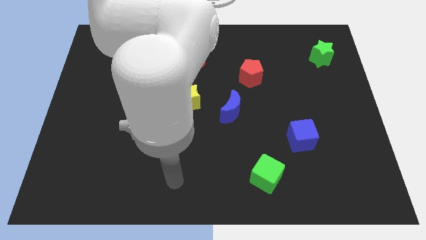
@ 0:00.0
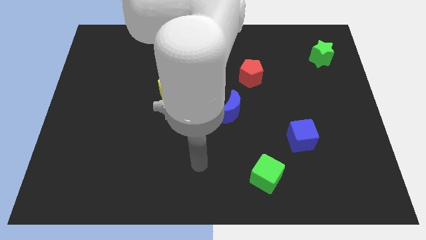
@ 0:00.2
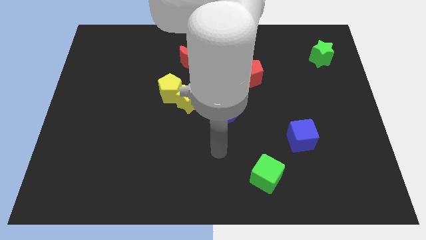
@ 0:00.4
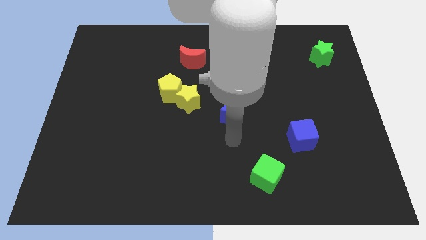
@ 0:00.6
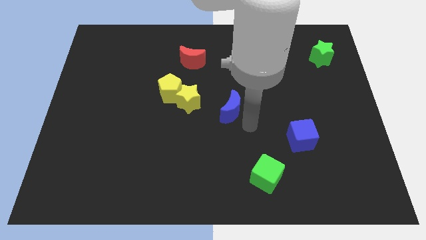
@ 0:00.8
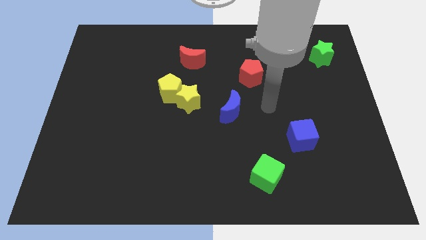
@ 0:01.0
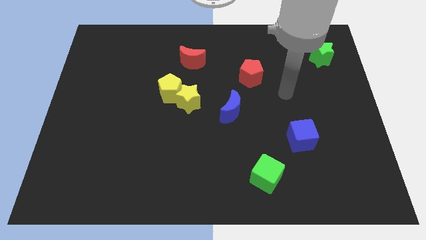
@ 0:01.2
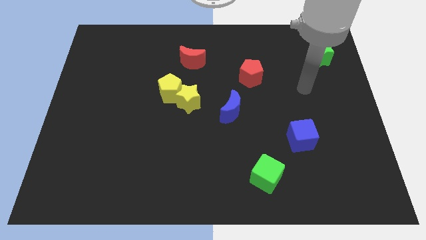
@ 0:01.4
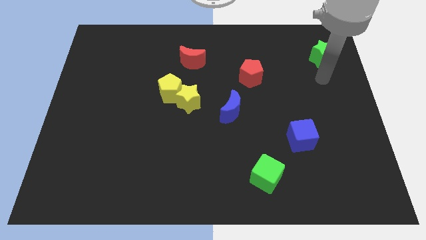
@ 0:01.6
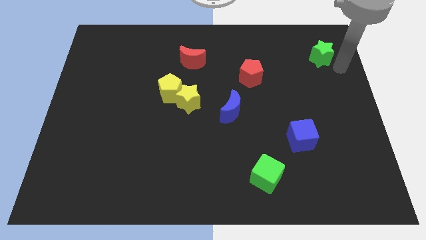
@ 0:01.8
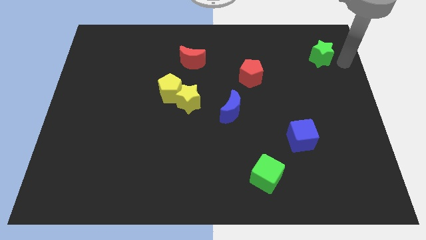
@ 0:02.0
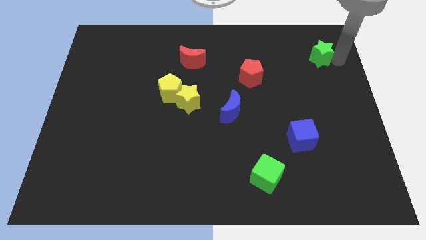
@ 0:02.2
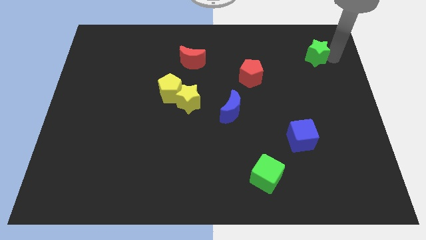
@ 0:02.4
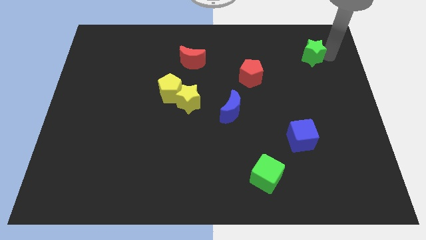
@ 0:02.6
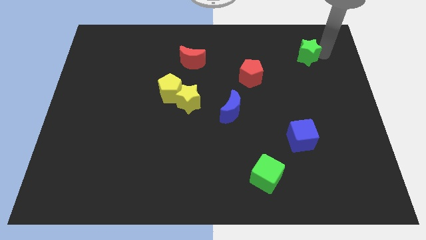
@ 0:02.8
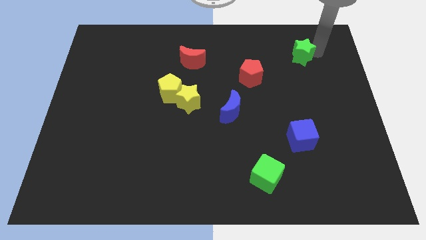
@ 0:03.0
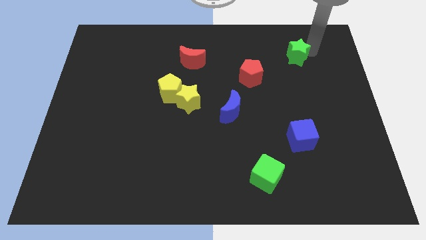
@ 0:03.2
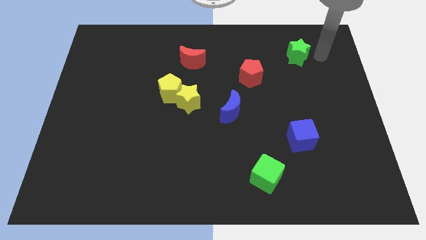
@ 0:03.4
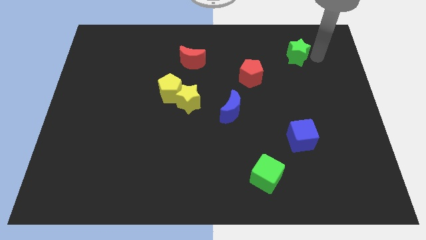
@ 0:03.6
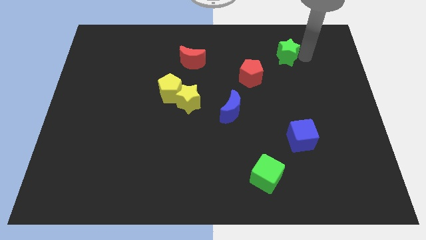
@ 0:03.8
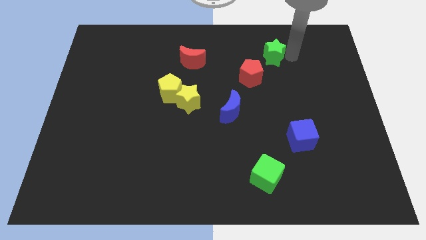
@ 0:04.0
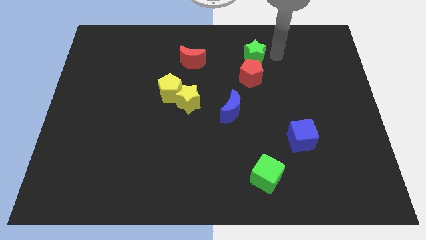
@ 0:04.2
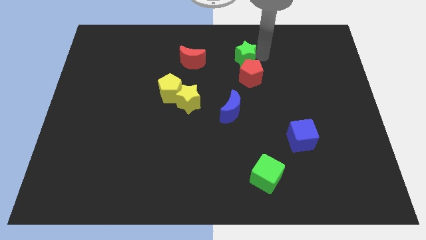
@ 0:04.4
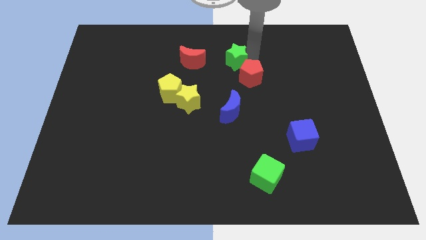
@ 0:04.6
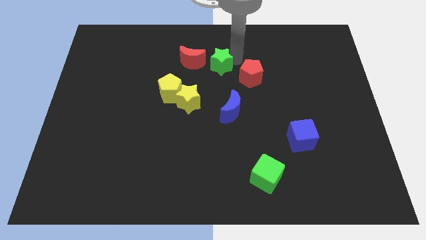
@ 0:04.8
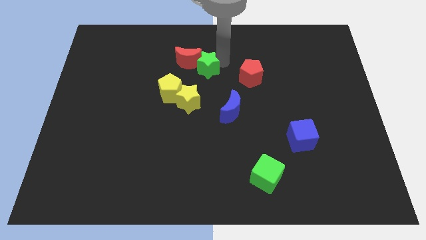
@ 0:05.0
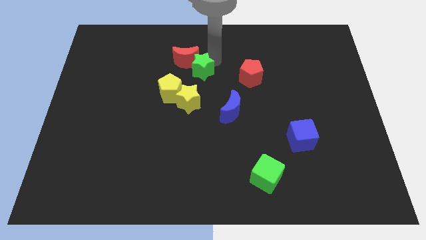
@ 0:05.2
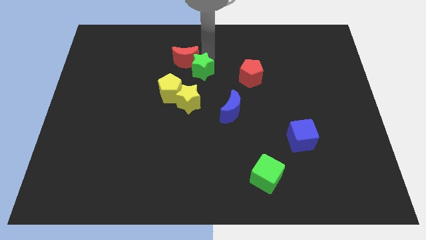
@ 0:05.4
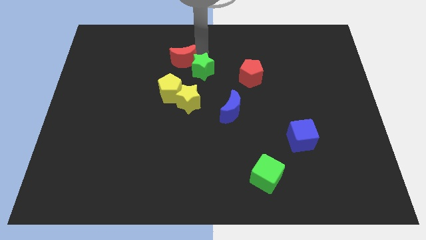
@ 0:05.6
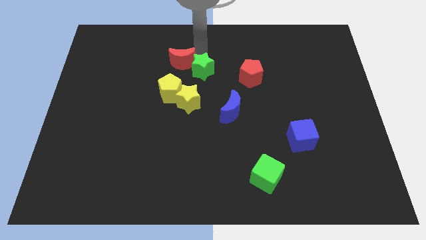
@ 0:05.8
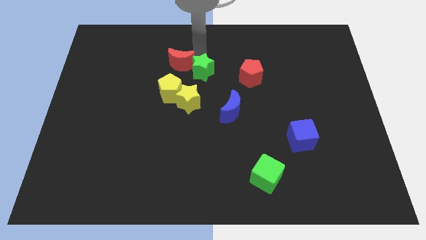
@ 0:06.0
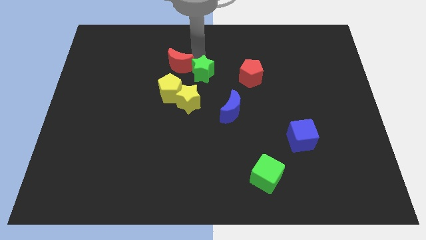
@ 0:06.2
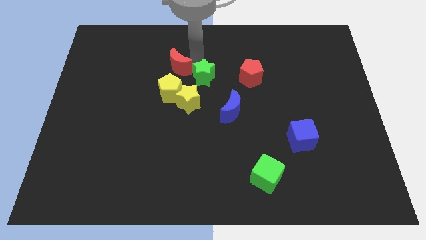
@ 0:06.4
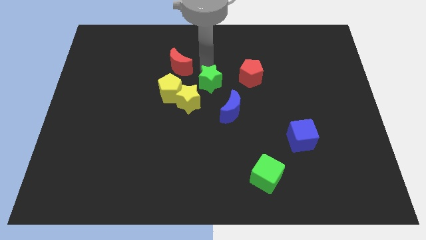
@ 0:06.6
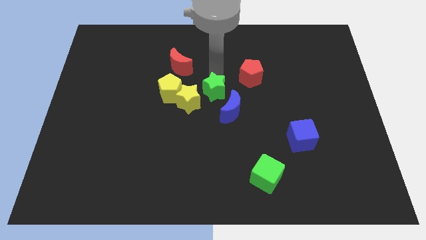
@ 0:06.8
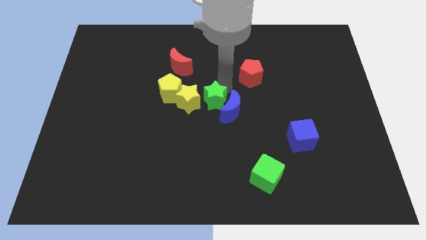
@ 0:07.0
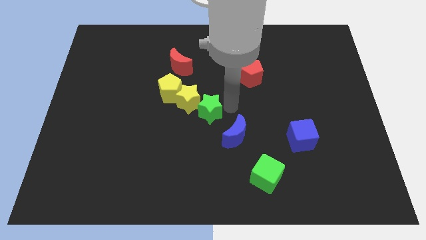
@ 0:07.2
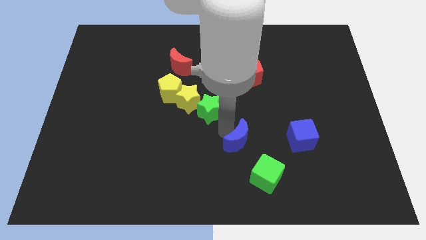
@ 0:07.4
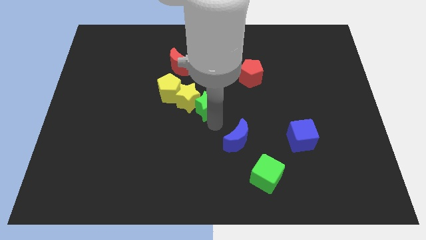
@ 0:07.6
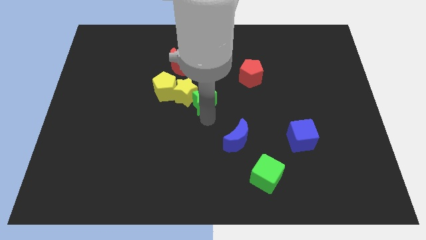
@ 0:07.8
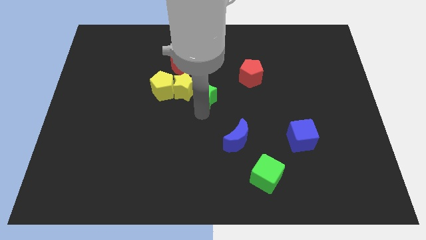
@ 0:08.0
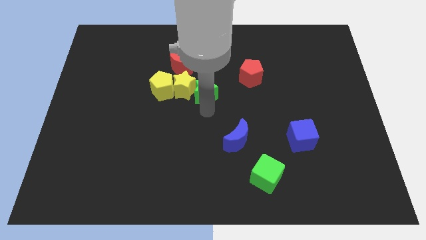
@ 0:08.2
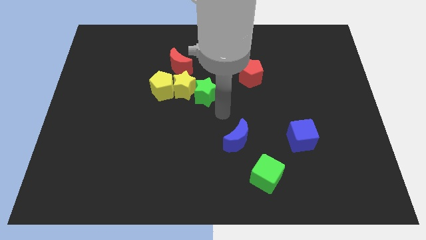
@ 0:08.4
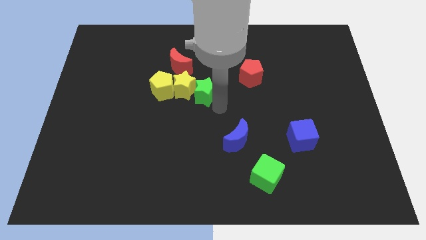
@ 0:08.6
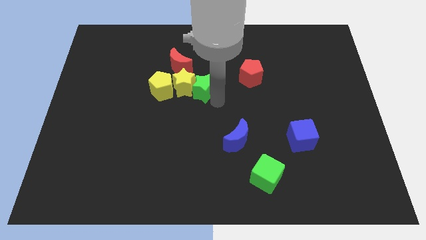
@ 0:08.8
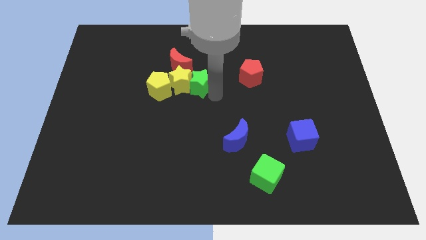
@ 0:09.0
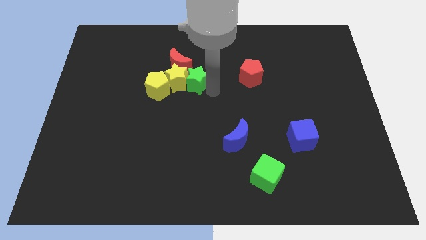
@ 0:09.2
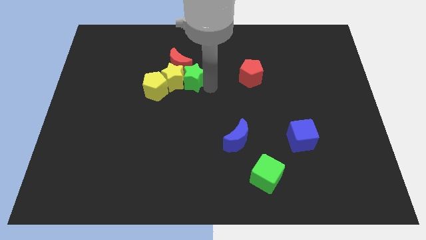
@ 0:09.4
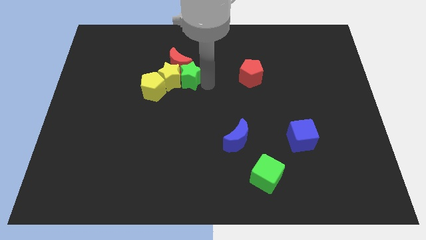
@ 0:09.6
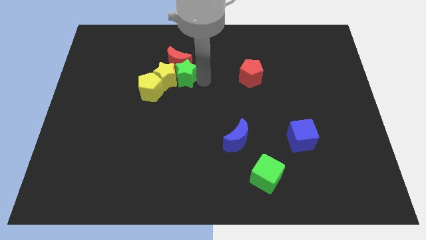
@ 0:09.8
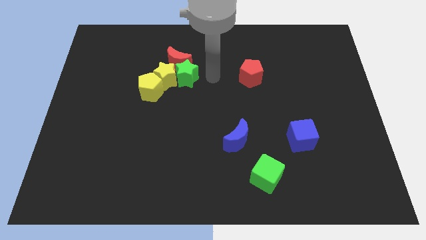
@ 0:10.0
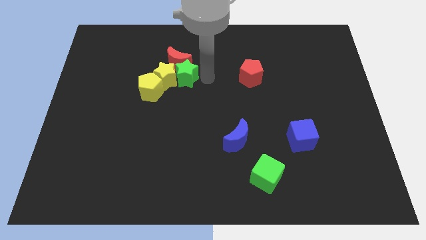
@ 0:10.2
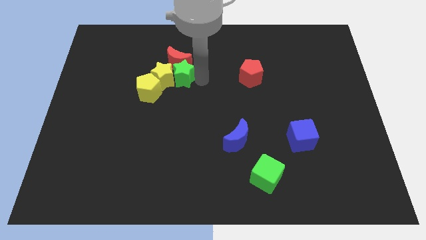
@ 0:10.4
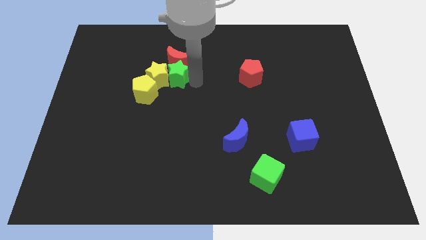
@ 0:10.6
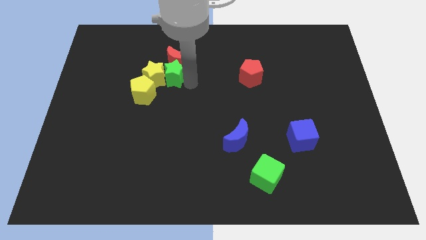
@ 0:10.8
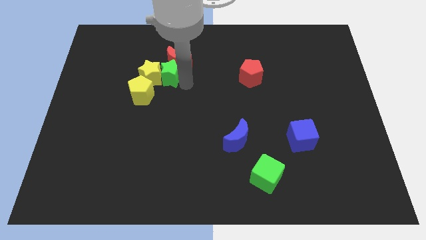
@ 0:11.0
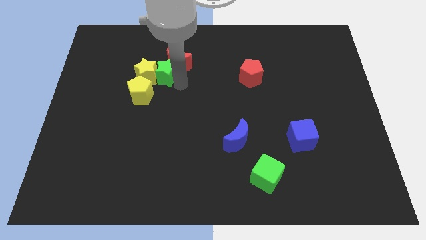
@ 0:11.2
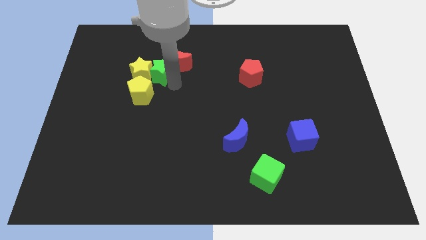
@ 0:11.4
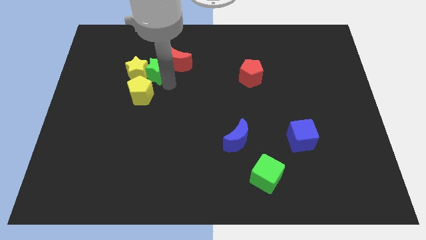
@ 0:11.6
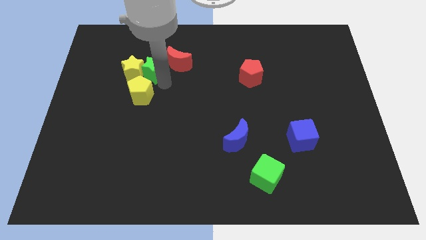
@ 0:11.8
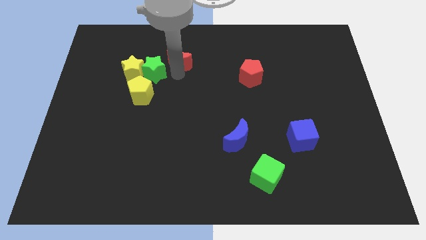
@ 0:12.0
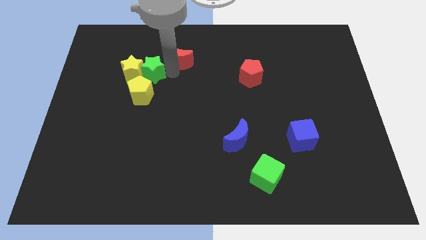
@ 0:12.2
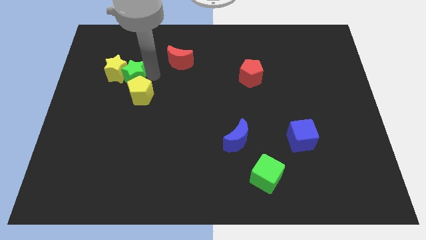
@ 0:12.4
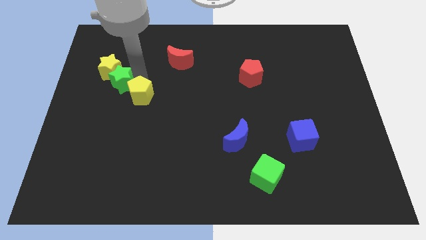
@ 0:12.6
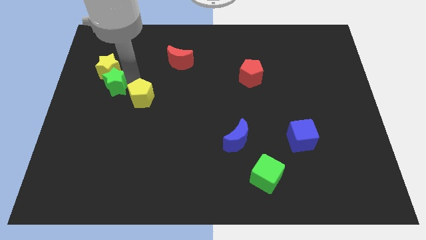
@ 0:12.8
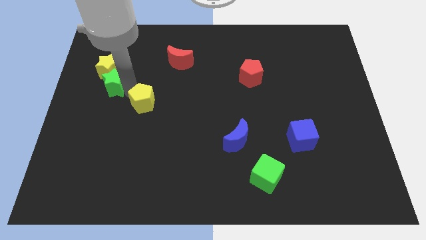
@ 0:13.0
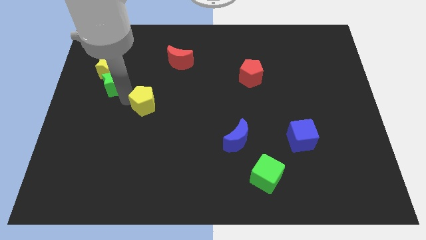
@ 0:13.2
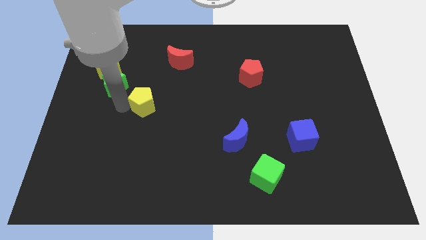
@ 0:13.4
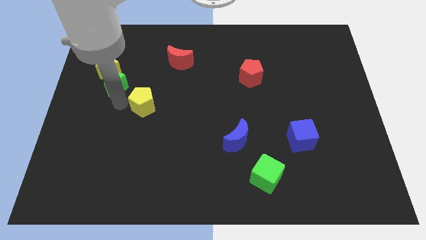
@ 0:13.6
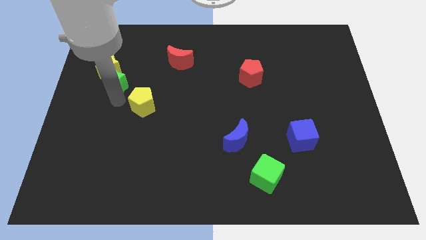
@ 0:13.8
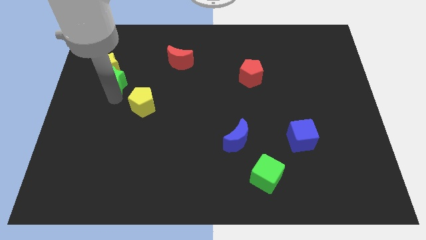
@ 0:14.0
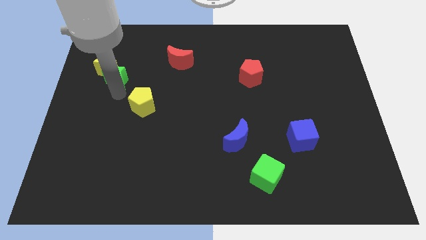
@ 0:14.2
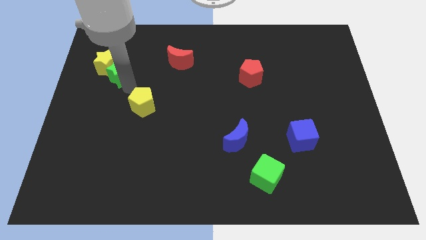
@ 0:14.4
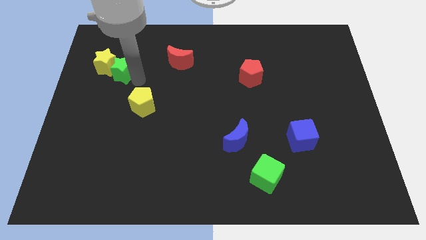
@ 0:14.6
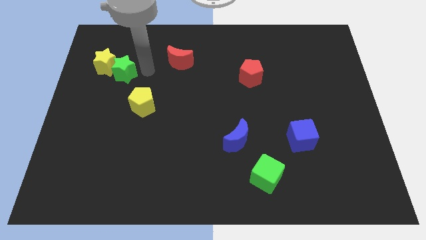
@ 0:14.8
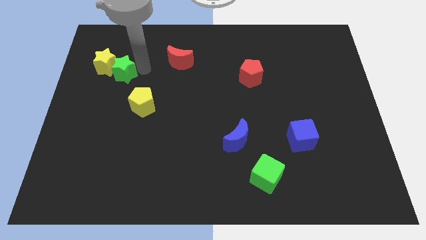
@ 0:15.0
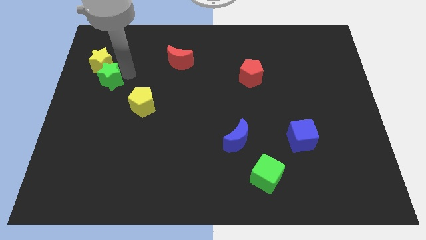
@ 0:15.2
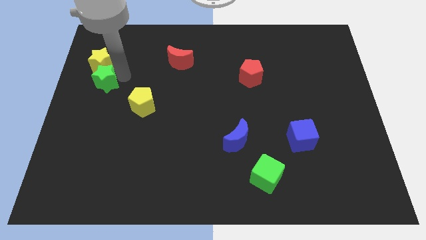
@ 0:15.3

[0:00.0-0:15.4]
push the green star to the left side of the board
